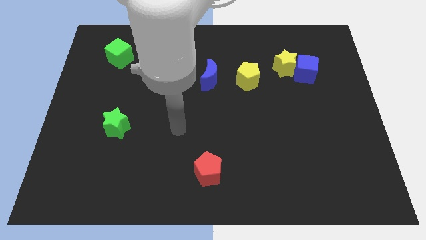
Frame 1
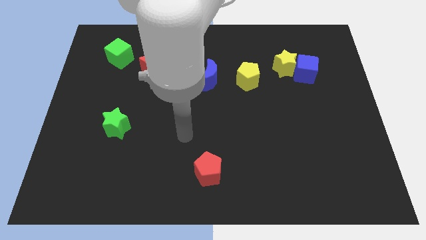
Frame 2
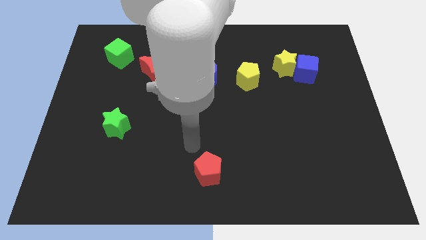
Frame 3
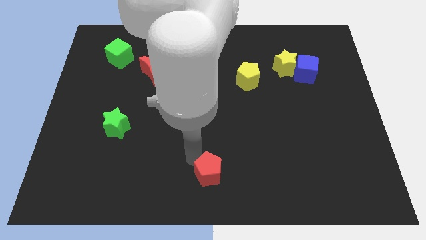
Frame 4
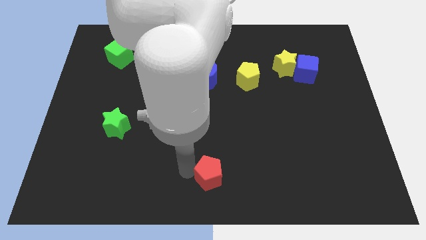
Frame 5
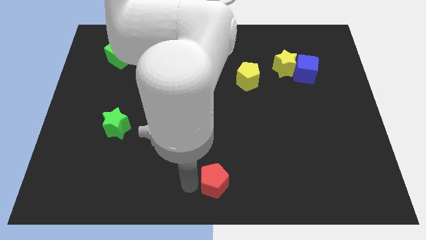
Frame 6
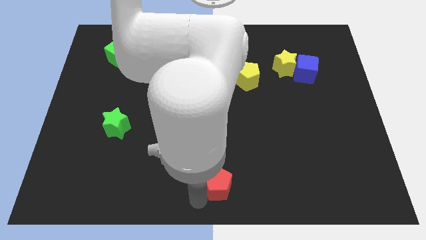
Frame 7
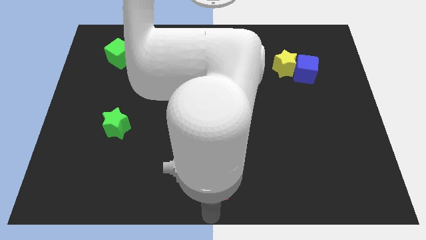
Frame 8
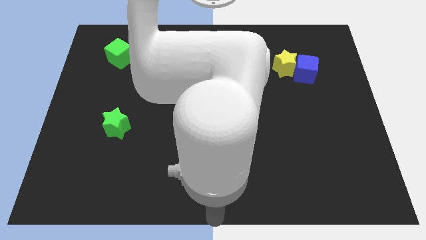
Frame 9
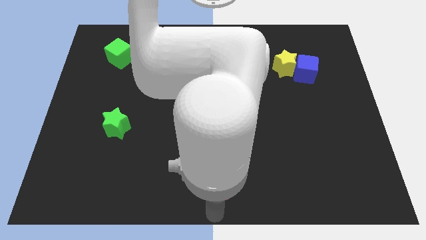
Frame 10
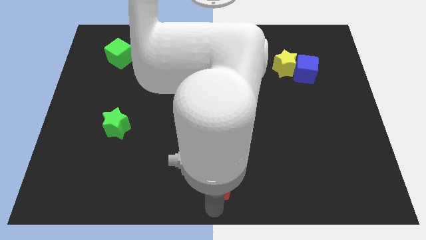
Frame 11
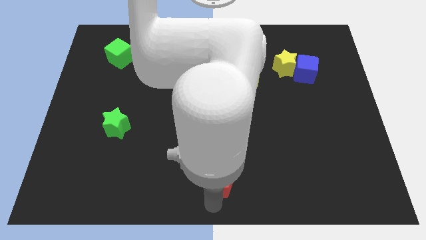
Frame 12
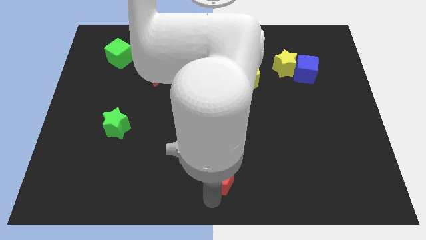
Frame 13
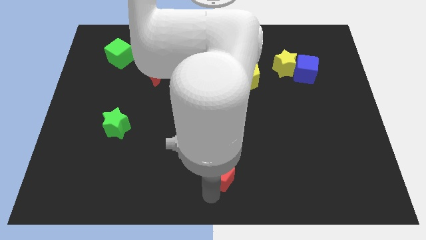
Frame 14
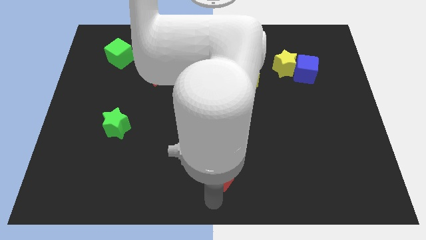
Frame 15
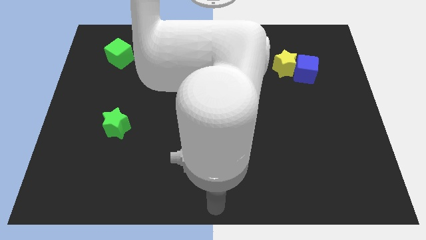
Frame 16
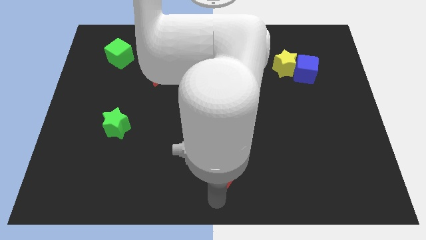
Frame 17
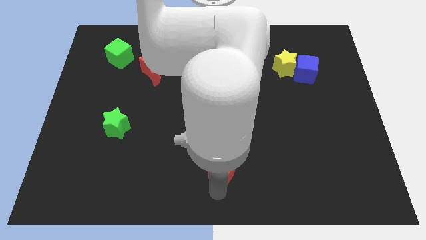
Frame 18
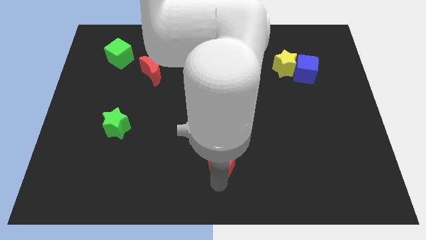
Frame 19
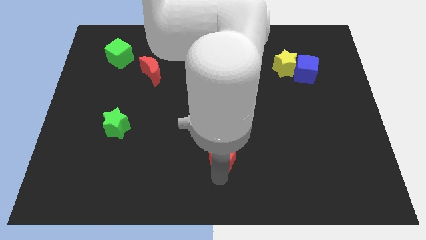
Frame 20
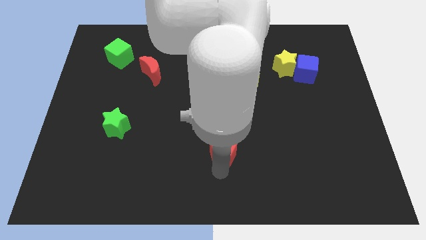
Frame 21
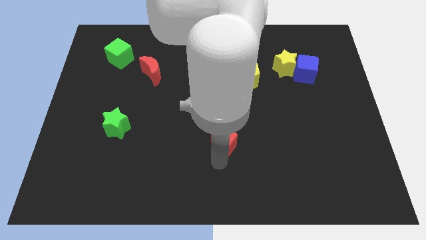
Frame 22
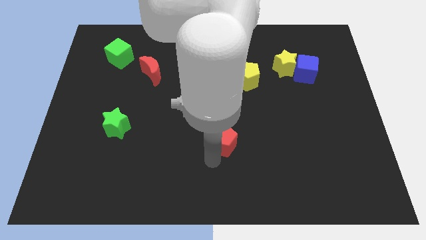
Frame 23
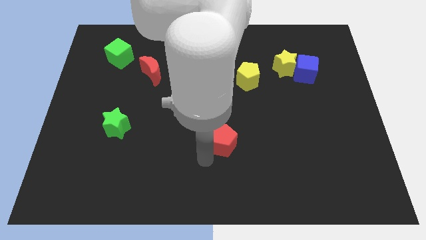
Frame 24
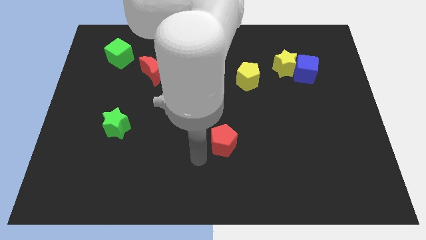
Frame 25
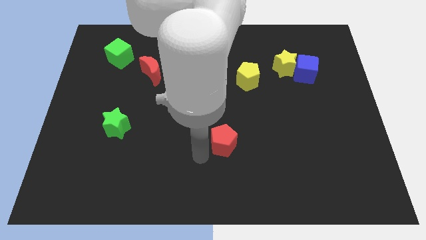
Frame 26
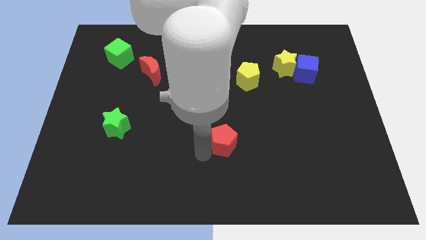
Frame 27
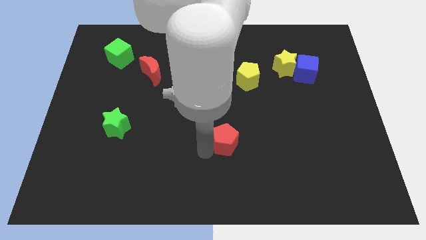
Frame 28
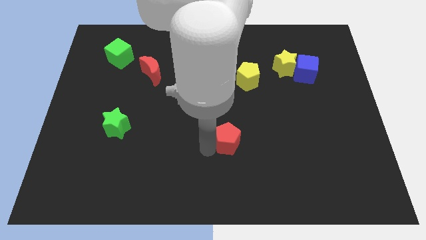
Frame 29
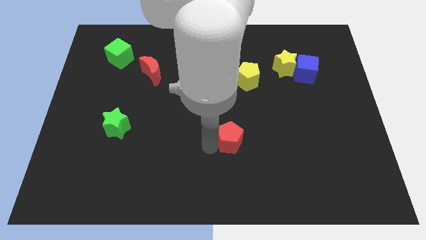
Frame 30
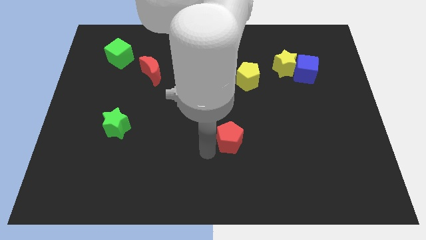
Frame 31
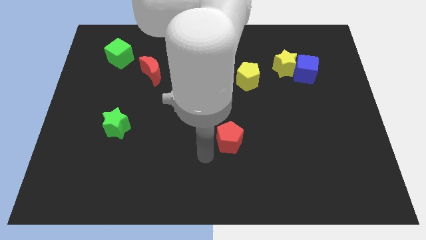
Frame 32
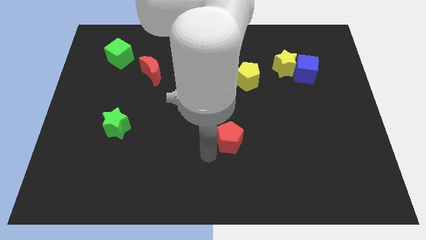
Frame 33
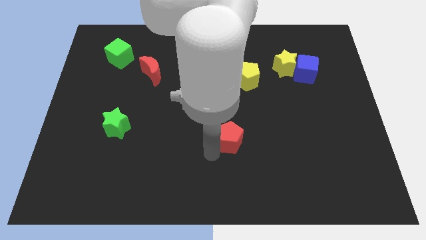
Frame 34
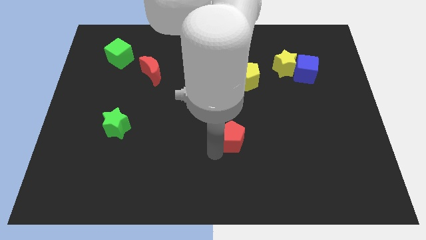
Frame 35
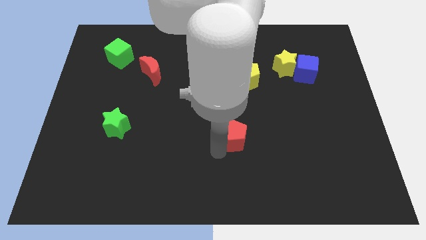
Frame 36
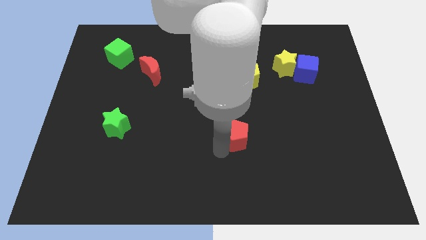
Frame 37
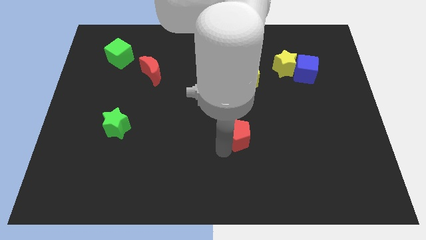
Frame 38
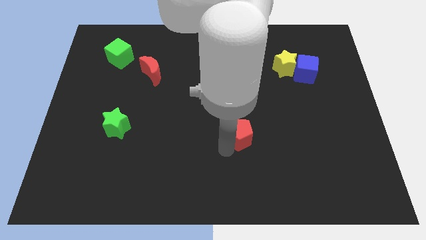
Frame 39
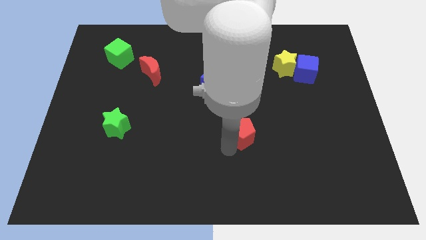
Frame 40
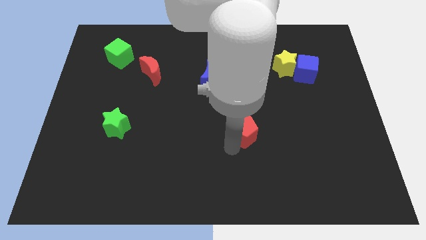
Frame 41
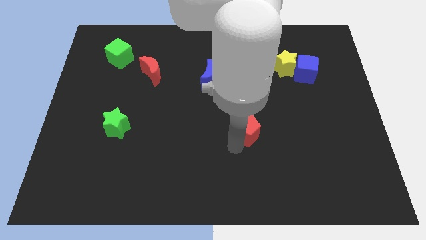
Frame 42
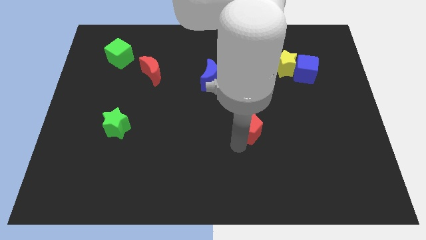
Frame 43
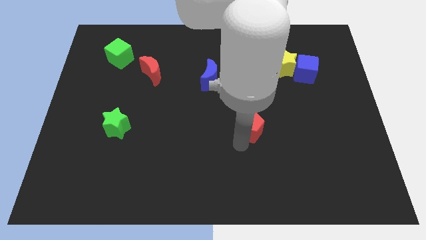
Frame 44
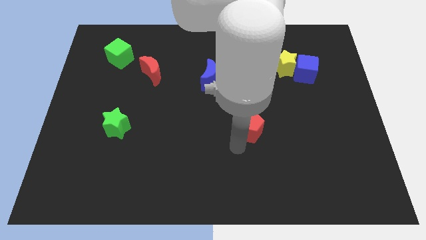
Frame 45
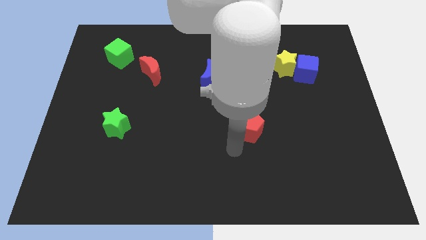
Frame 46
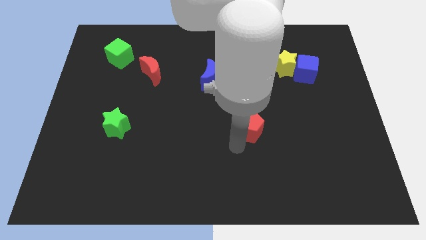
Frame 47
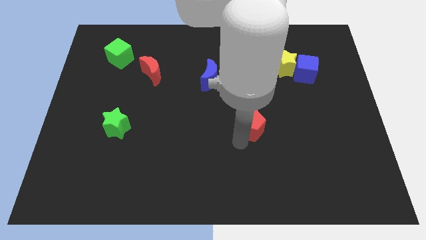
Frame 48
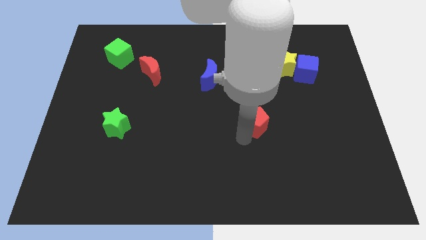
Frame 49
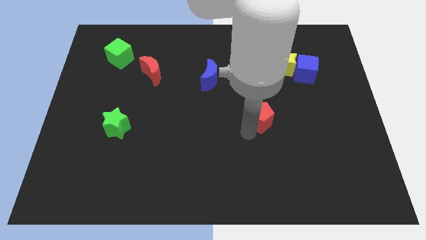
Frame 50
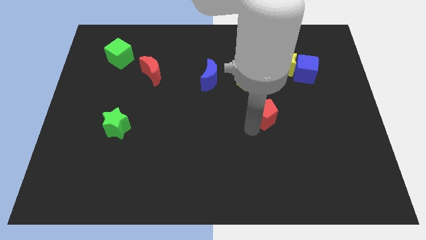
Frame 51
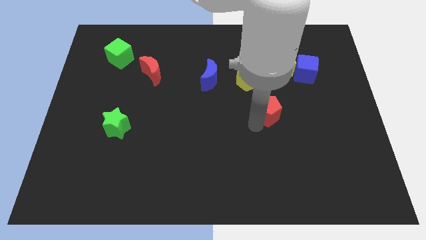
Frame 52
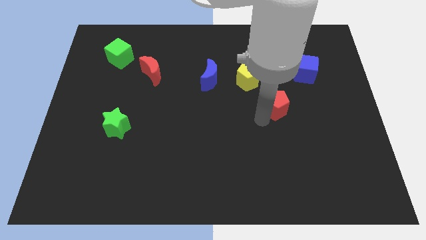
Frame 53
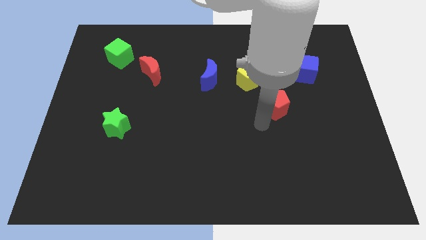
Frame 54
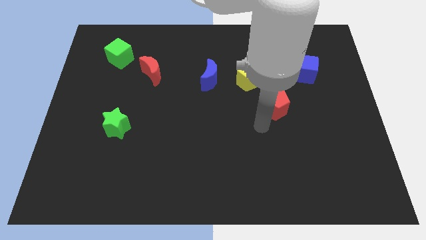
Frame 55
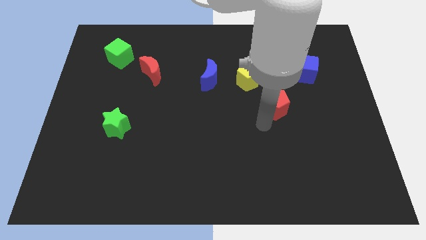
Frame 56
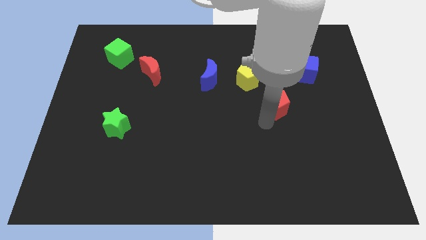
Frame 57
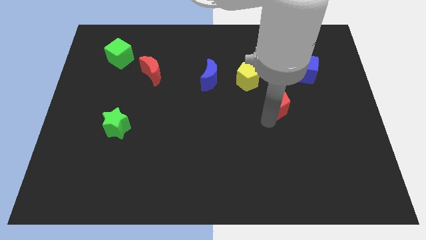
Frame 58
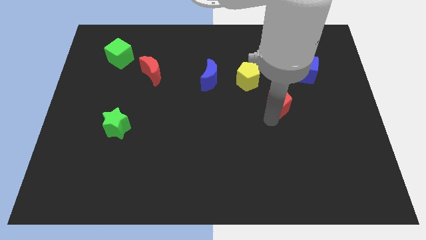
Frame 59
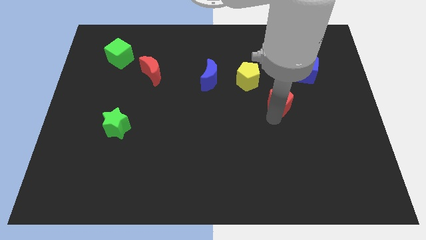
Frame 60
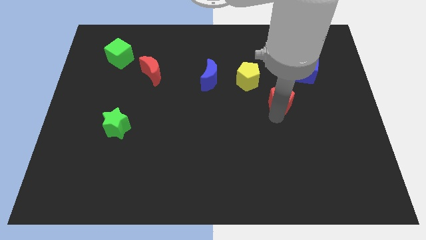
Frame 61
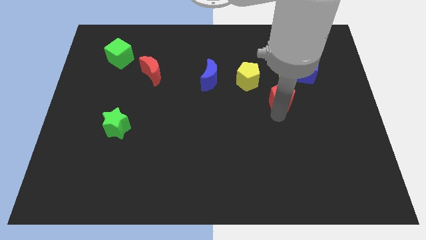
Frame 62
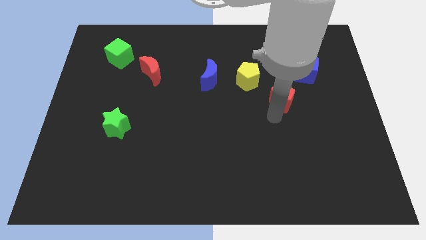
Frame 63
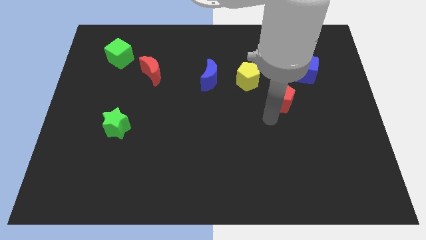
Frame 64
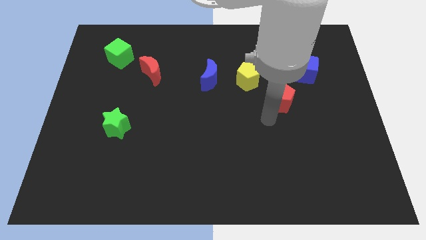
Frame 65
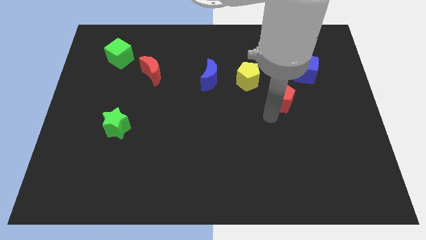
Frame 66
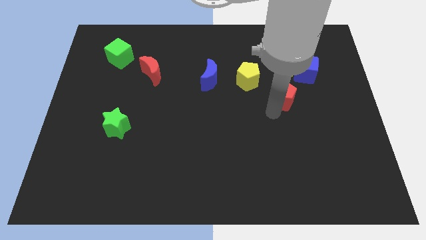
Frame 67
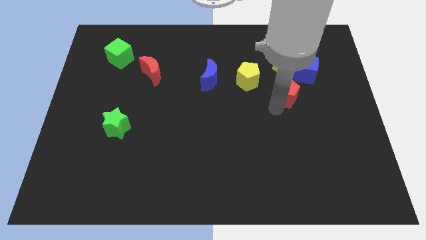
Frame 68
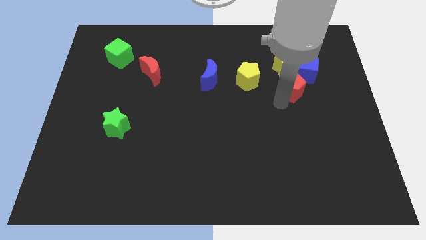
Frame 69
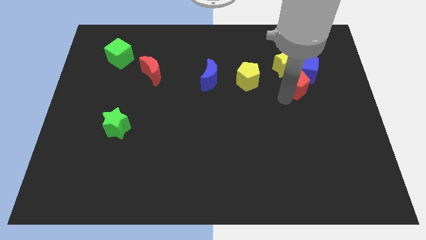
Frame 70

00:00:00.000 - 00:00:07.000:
slide the red pentagon to the blue cube
